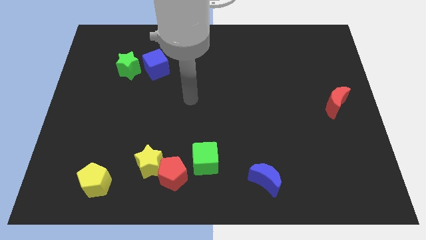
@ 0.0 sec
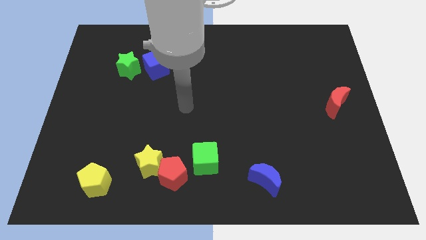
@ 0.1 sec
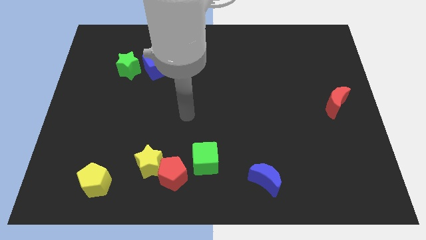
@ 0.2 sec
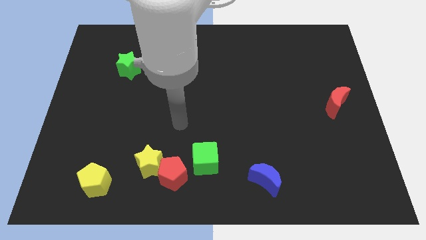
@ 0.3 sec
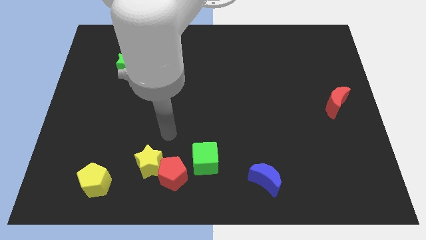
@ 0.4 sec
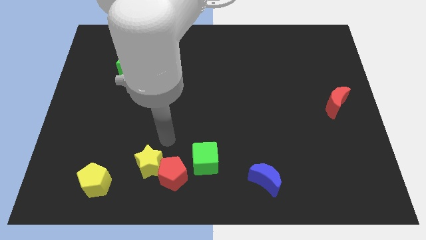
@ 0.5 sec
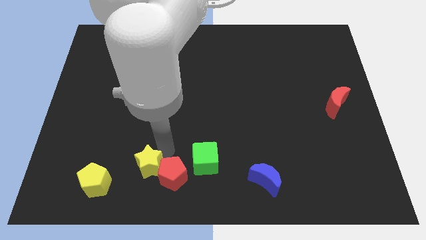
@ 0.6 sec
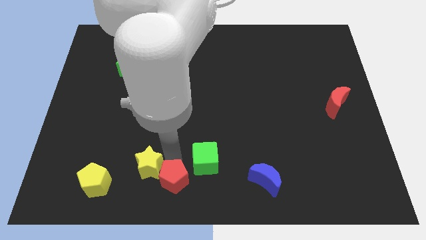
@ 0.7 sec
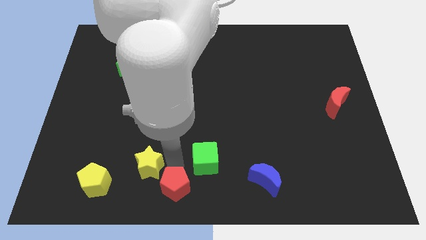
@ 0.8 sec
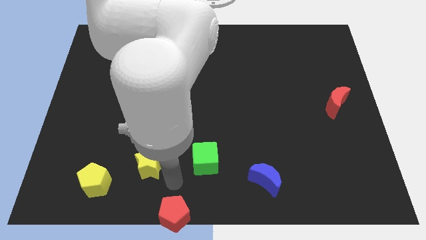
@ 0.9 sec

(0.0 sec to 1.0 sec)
move the yellow star away from the red pentagon

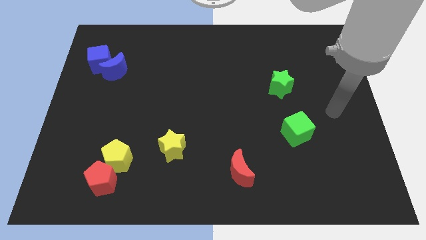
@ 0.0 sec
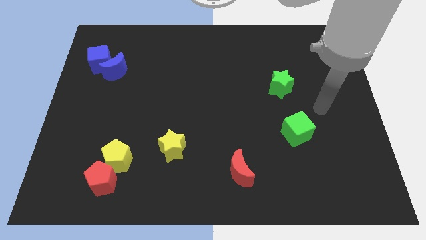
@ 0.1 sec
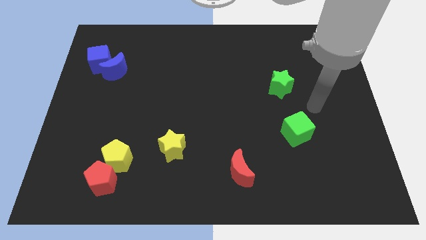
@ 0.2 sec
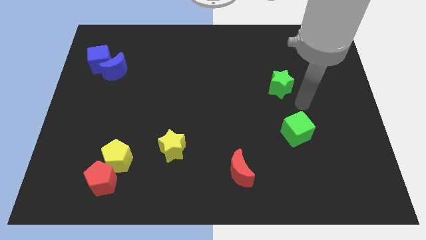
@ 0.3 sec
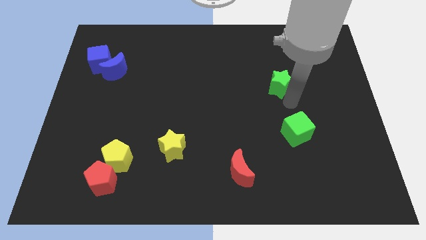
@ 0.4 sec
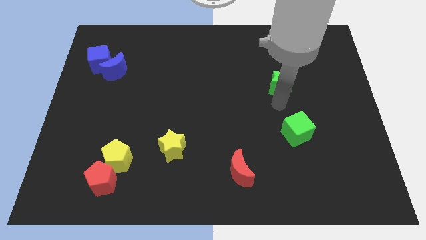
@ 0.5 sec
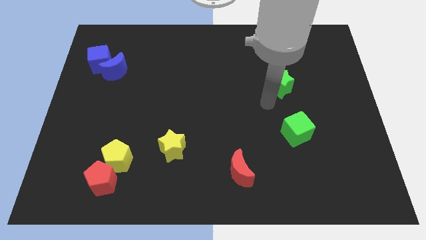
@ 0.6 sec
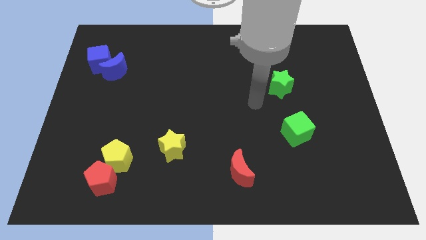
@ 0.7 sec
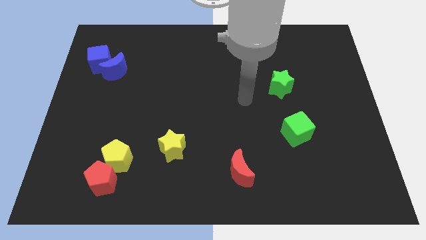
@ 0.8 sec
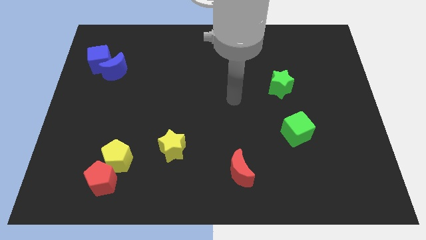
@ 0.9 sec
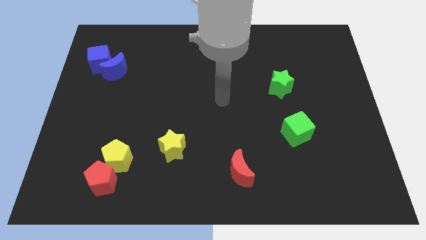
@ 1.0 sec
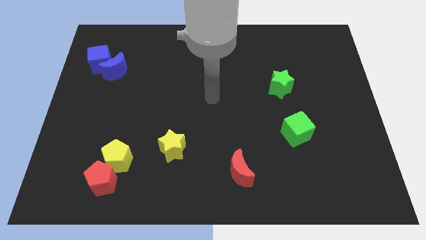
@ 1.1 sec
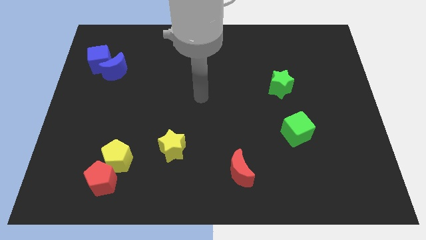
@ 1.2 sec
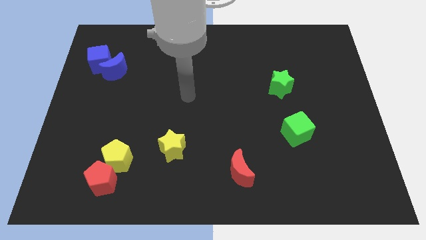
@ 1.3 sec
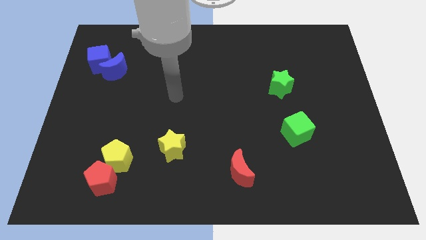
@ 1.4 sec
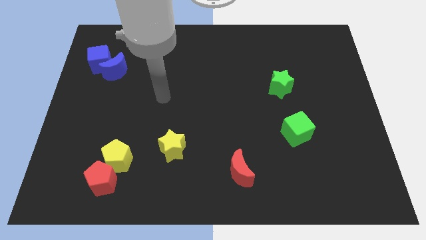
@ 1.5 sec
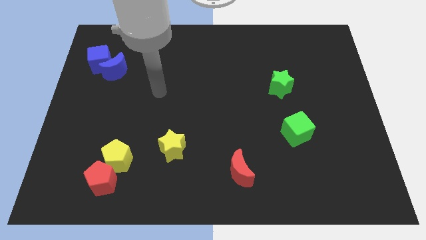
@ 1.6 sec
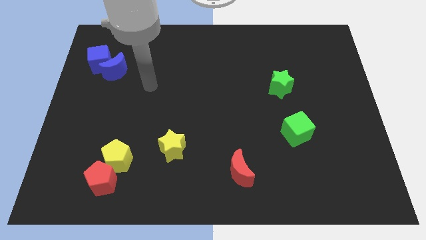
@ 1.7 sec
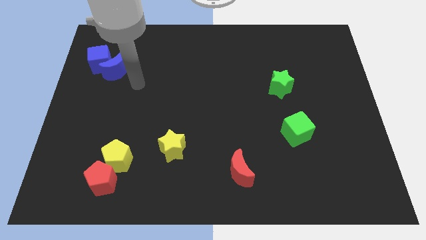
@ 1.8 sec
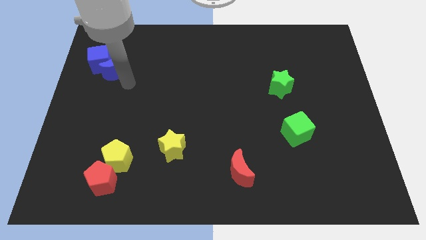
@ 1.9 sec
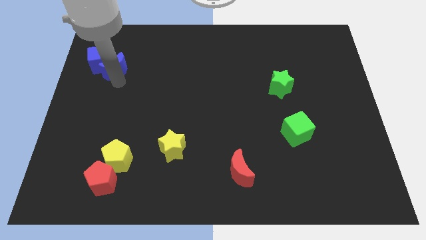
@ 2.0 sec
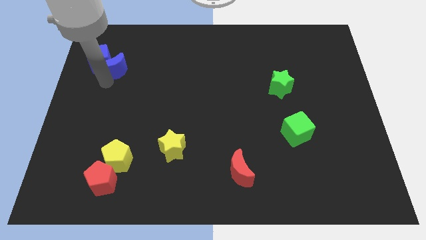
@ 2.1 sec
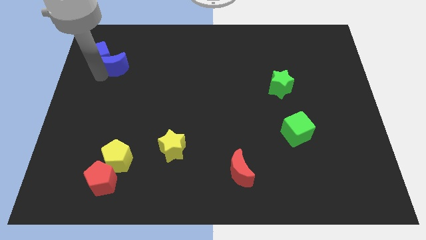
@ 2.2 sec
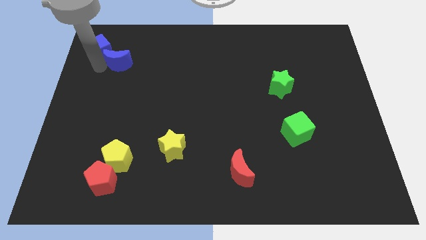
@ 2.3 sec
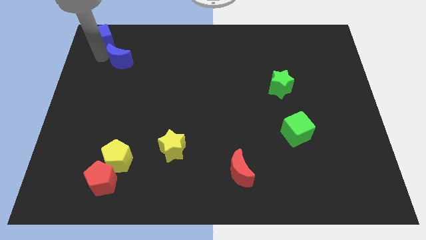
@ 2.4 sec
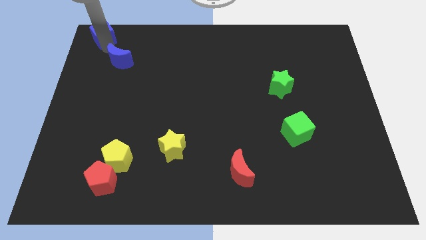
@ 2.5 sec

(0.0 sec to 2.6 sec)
pull the blue moon apart from the blue cube

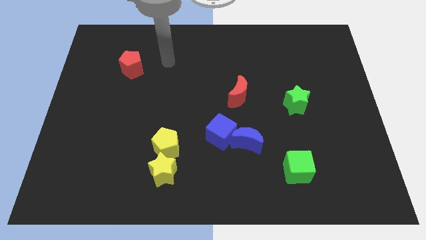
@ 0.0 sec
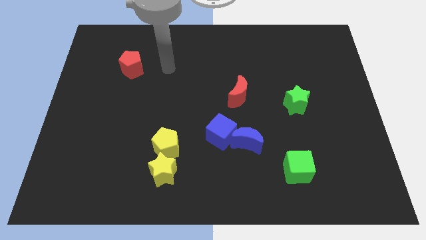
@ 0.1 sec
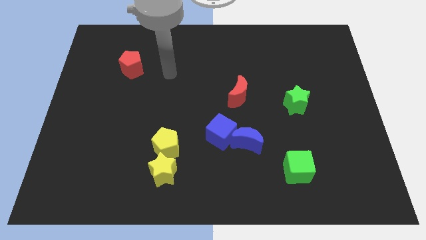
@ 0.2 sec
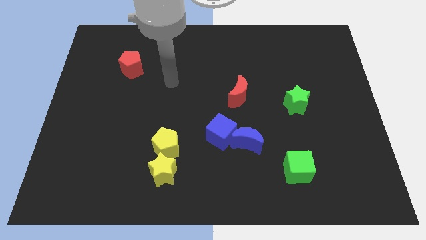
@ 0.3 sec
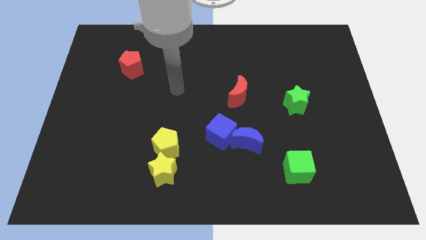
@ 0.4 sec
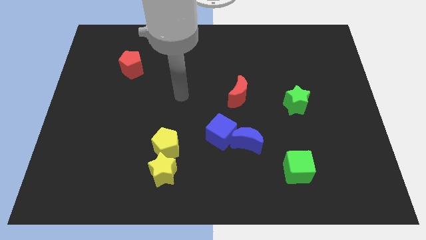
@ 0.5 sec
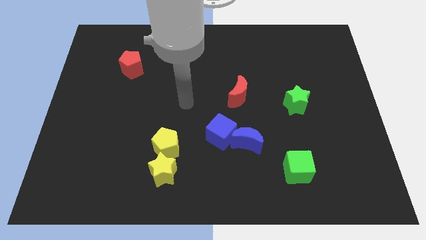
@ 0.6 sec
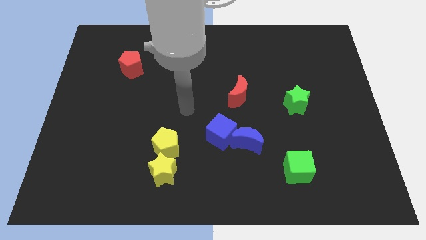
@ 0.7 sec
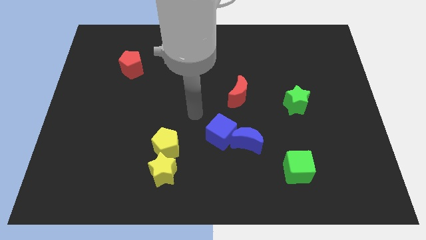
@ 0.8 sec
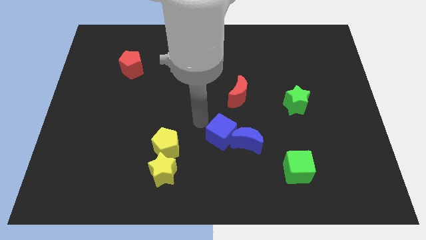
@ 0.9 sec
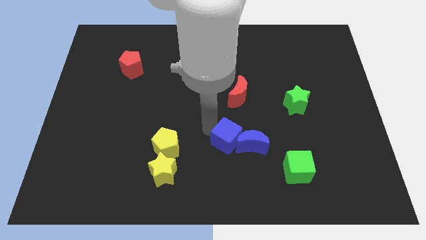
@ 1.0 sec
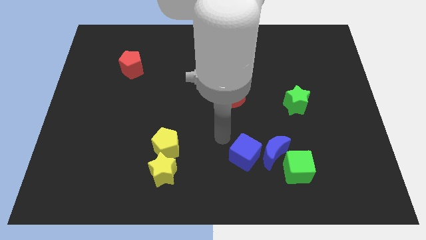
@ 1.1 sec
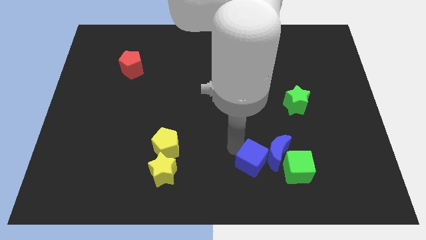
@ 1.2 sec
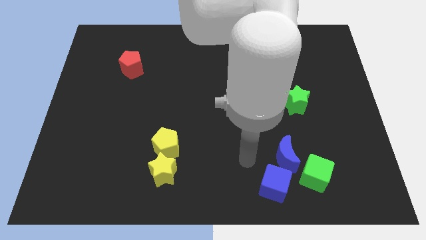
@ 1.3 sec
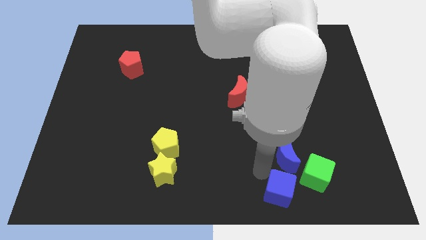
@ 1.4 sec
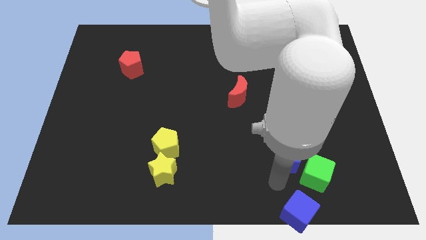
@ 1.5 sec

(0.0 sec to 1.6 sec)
move the blue moon away from the blue cube

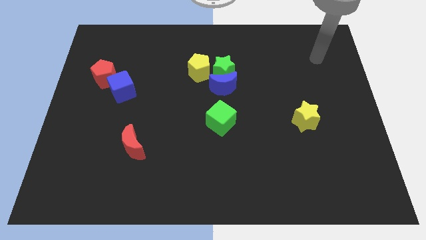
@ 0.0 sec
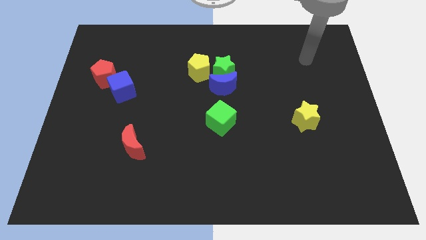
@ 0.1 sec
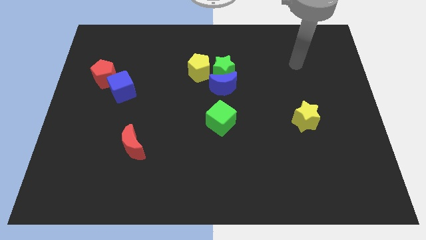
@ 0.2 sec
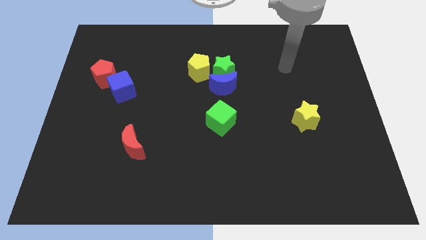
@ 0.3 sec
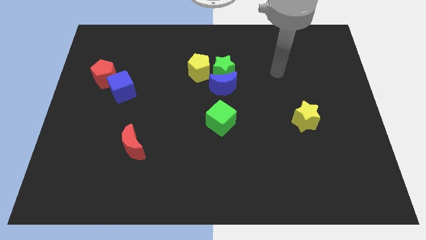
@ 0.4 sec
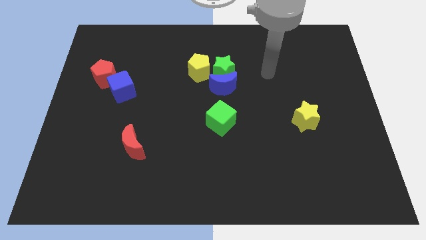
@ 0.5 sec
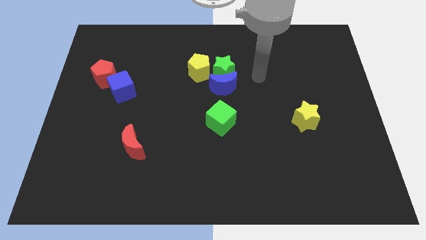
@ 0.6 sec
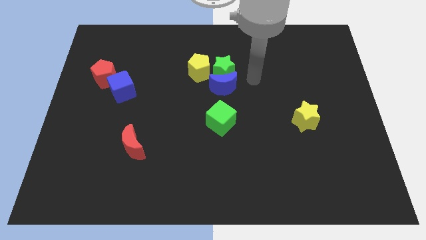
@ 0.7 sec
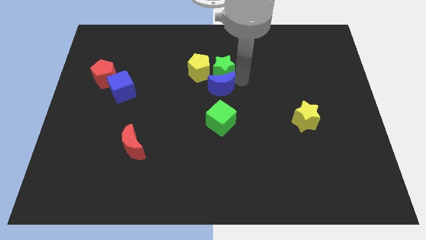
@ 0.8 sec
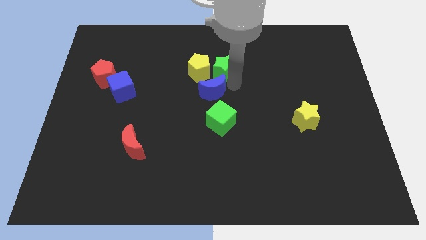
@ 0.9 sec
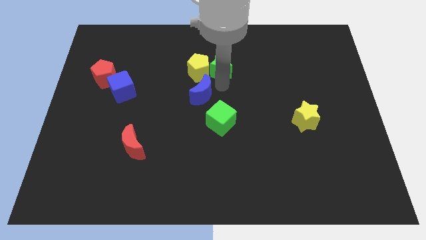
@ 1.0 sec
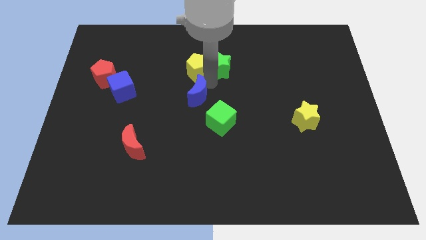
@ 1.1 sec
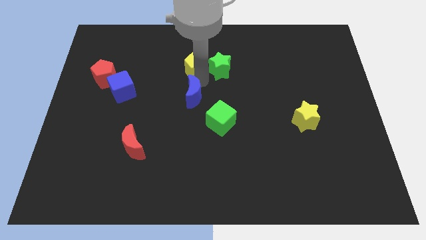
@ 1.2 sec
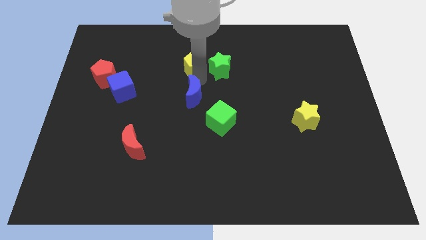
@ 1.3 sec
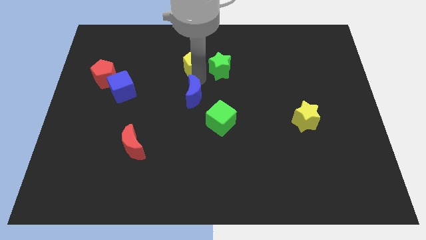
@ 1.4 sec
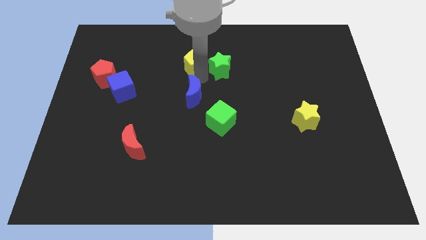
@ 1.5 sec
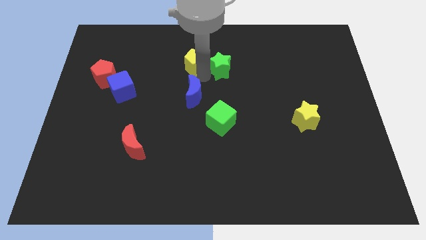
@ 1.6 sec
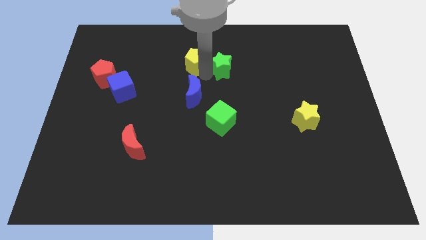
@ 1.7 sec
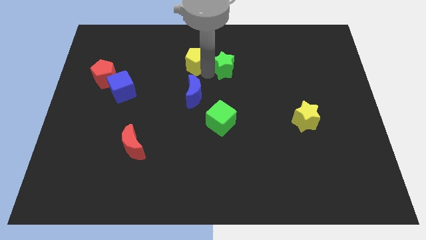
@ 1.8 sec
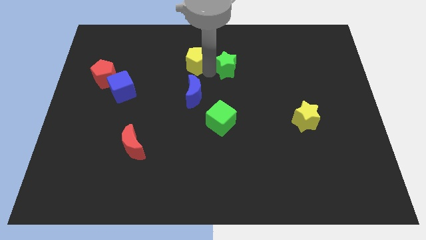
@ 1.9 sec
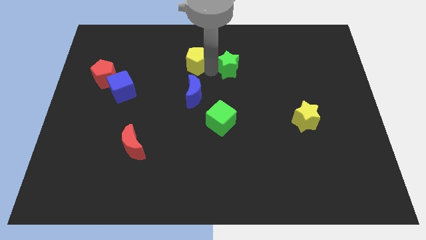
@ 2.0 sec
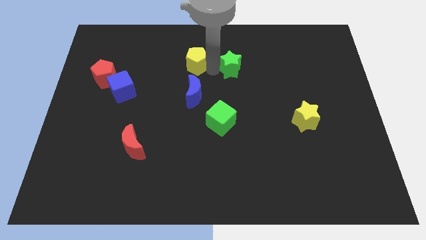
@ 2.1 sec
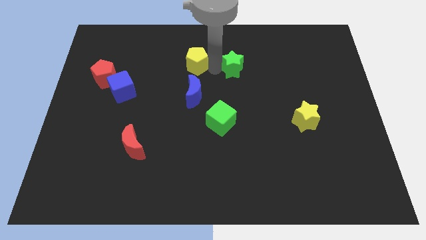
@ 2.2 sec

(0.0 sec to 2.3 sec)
move the green star away from the blue moon and yellow pentagon

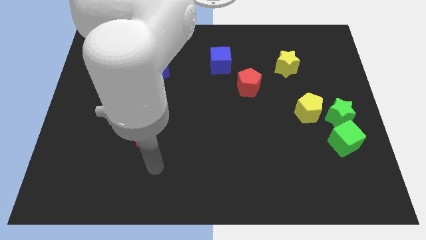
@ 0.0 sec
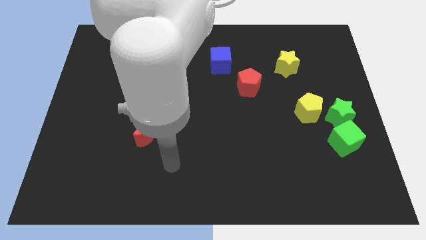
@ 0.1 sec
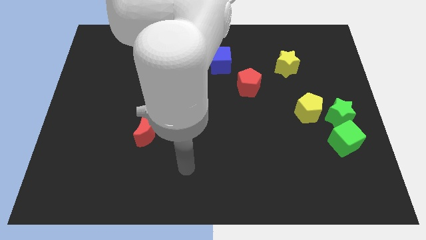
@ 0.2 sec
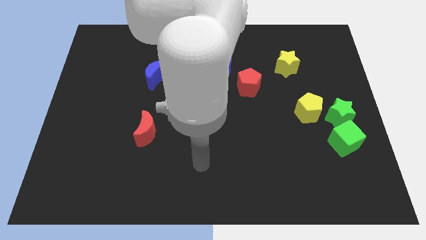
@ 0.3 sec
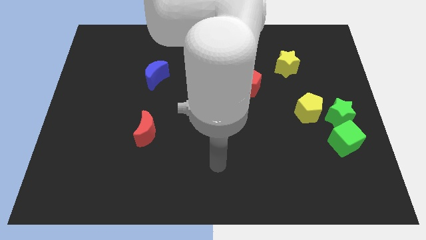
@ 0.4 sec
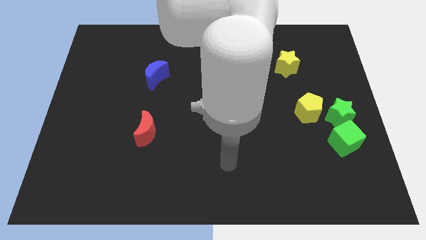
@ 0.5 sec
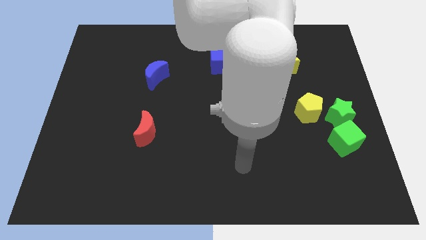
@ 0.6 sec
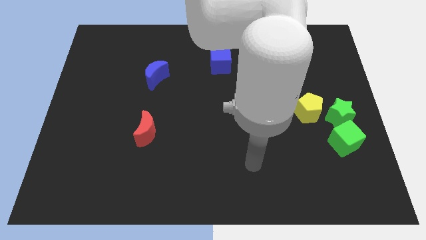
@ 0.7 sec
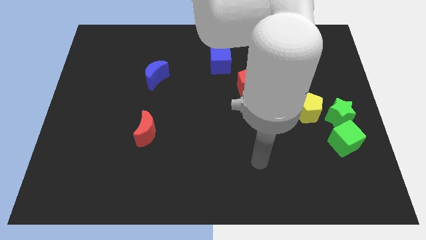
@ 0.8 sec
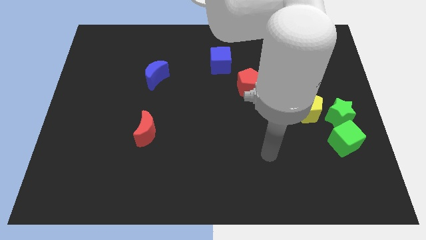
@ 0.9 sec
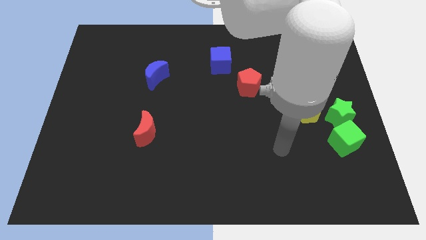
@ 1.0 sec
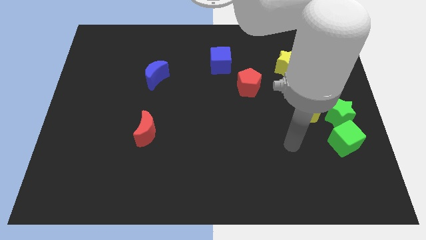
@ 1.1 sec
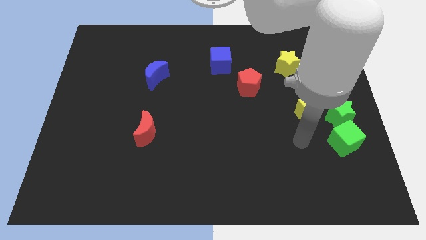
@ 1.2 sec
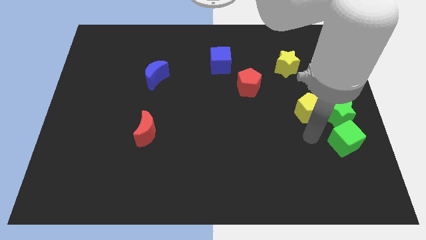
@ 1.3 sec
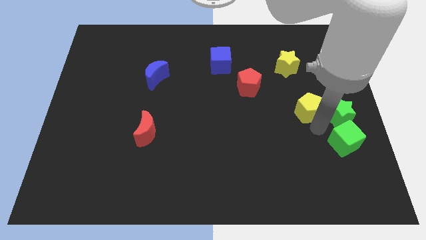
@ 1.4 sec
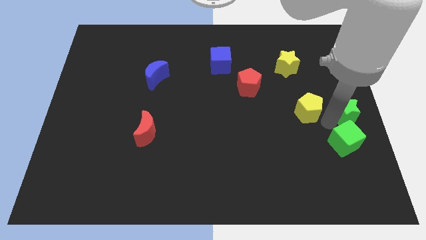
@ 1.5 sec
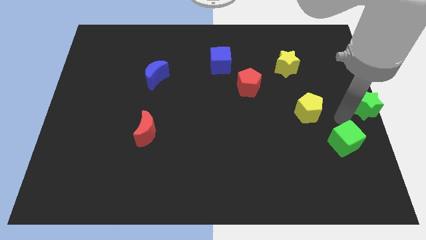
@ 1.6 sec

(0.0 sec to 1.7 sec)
pull the green cube apart from the green star
